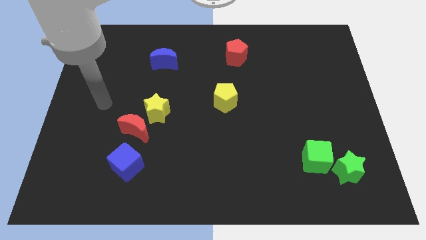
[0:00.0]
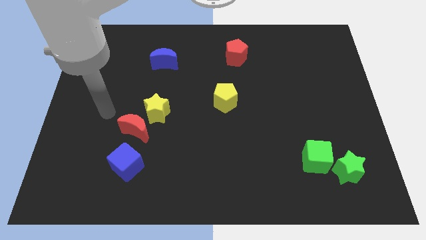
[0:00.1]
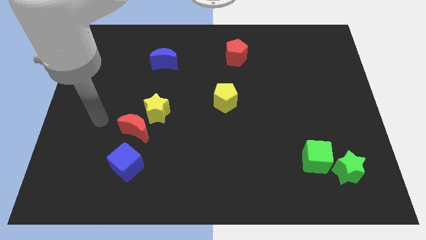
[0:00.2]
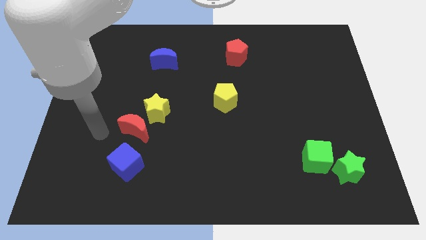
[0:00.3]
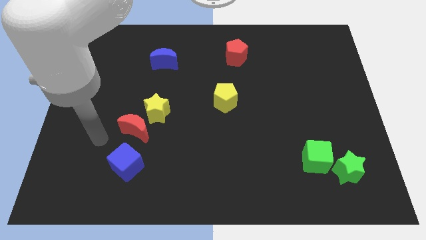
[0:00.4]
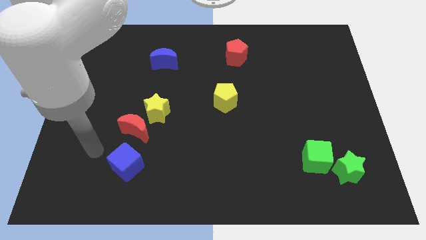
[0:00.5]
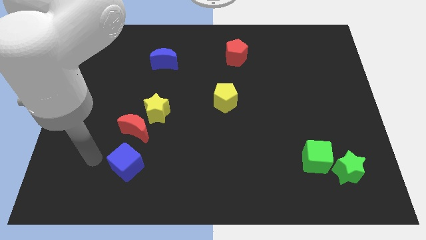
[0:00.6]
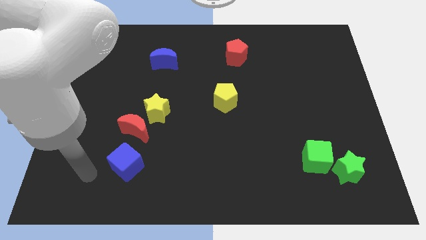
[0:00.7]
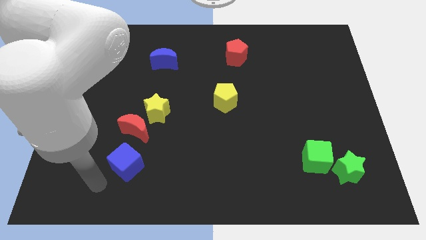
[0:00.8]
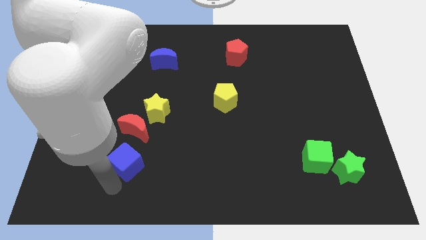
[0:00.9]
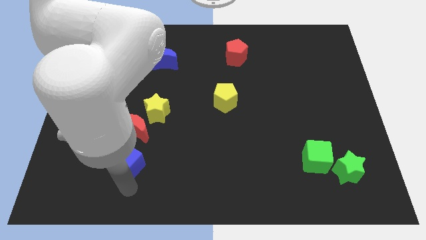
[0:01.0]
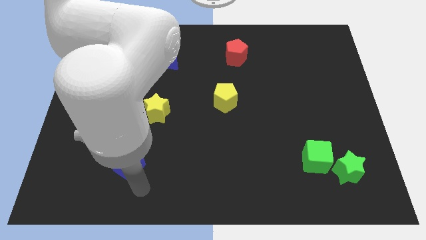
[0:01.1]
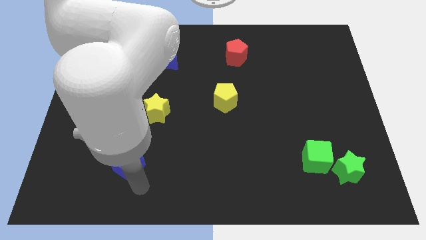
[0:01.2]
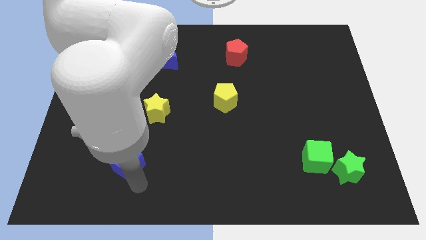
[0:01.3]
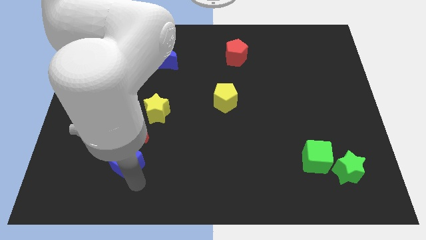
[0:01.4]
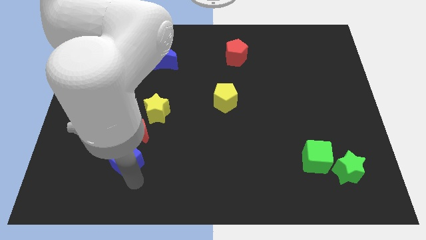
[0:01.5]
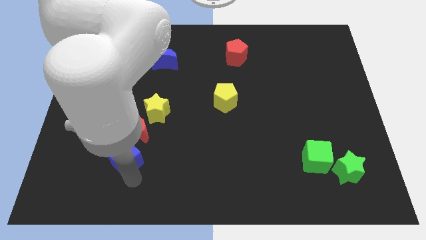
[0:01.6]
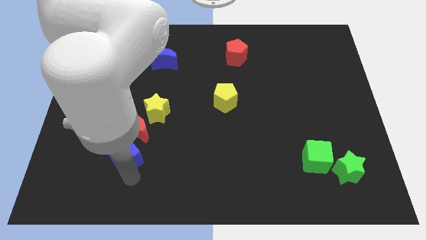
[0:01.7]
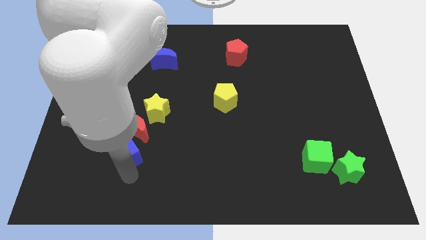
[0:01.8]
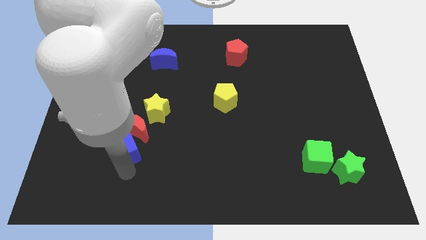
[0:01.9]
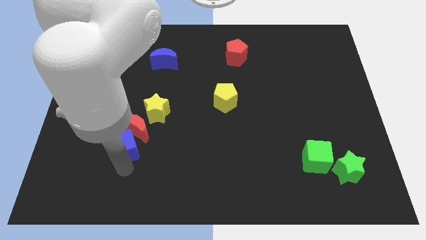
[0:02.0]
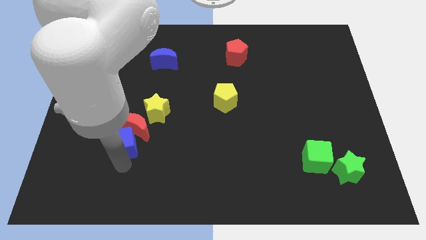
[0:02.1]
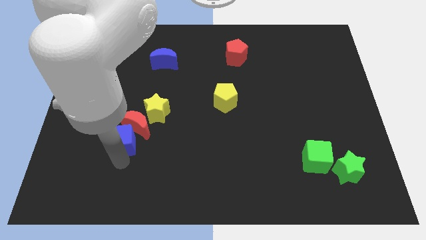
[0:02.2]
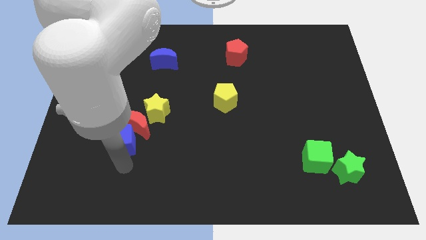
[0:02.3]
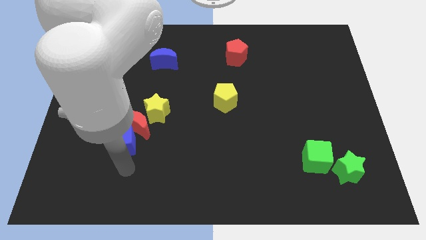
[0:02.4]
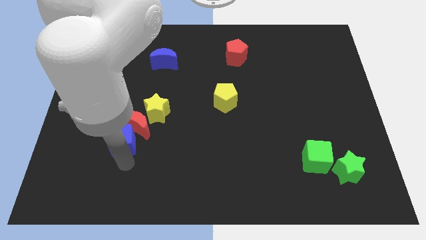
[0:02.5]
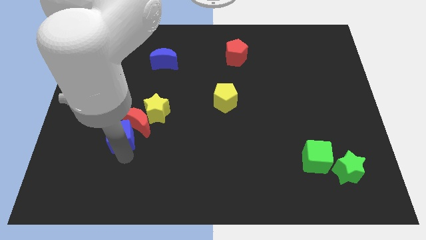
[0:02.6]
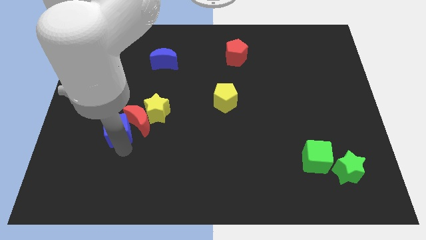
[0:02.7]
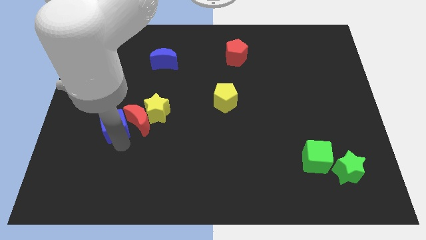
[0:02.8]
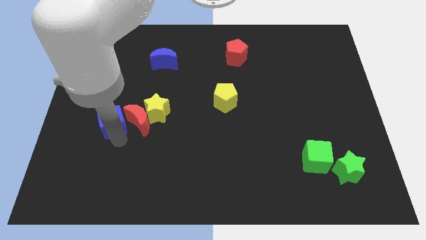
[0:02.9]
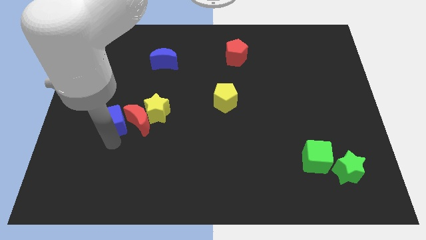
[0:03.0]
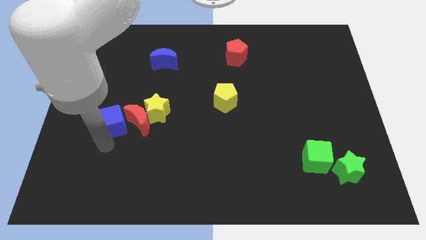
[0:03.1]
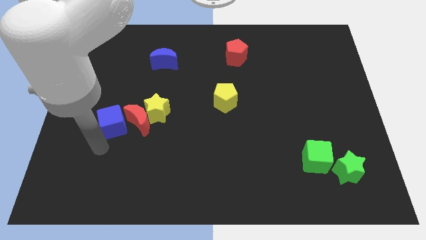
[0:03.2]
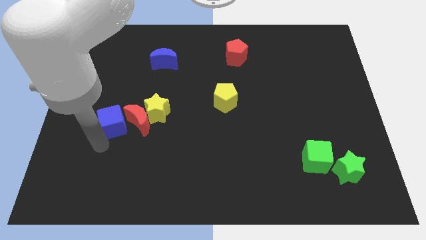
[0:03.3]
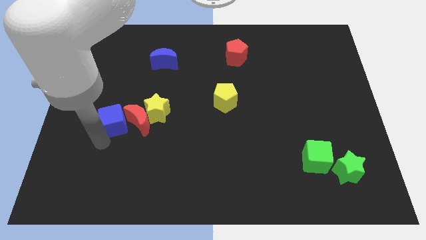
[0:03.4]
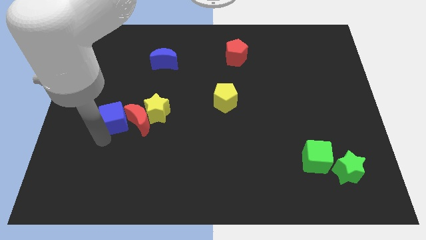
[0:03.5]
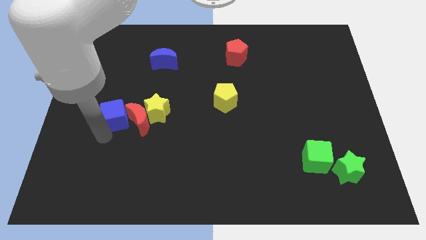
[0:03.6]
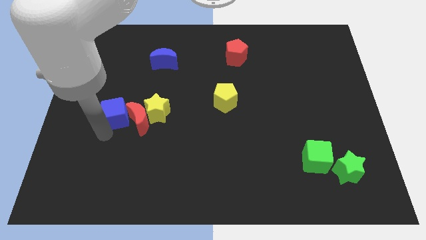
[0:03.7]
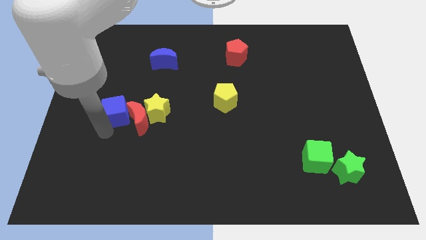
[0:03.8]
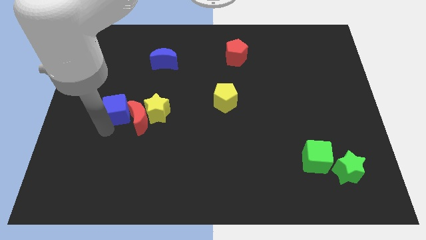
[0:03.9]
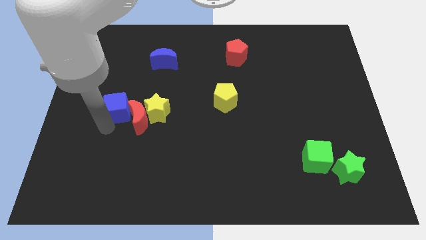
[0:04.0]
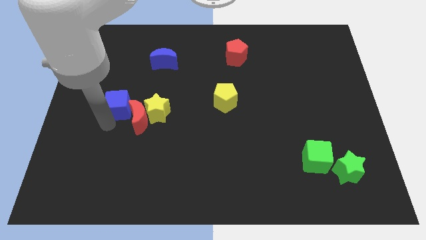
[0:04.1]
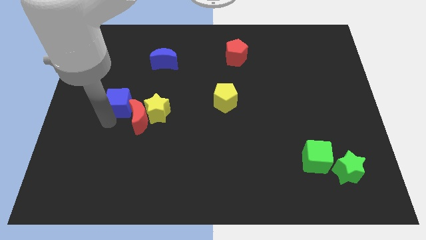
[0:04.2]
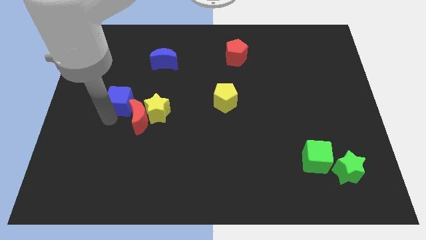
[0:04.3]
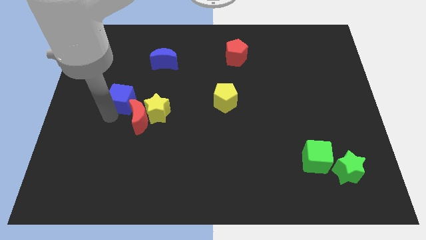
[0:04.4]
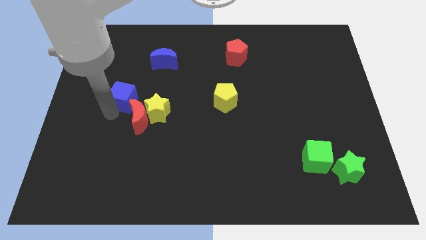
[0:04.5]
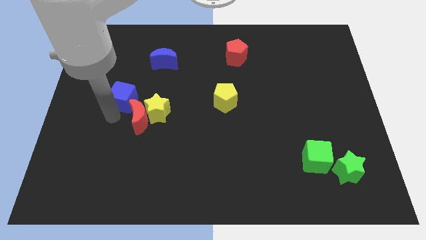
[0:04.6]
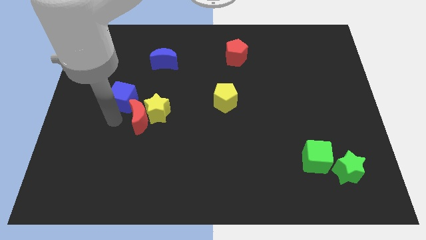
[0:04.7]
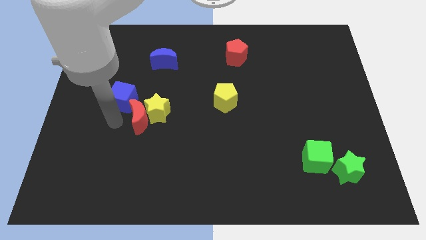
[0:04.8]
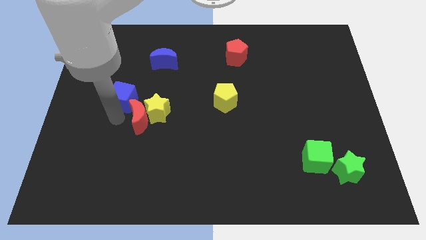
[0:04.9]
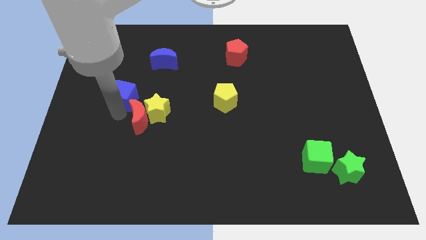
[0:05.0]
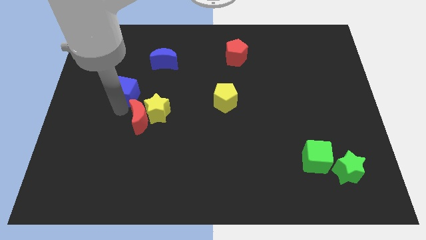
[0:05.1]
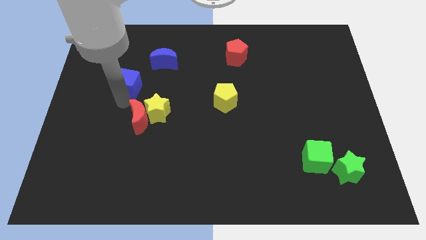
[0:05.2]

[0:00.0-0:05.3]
move the blue cube upwards

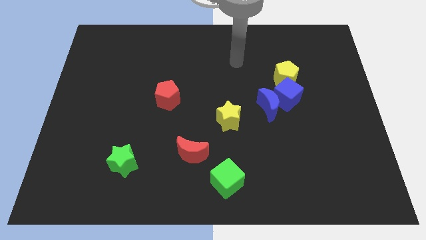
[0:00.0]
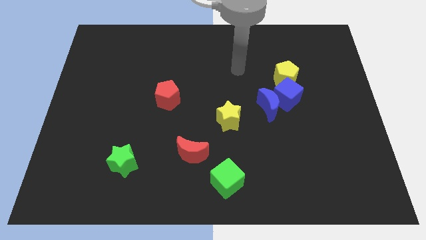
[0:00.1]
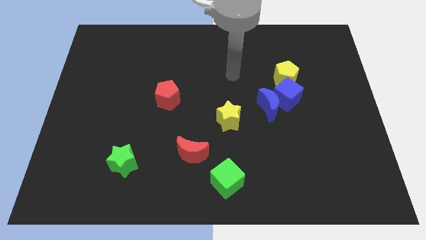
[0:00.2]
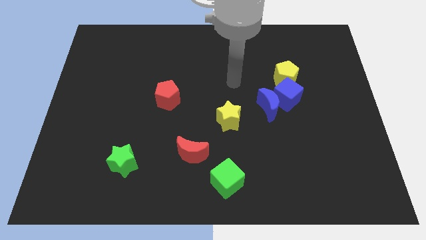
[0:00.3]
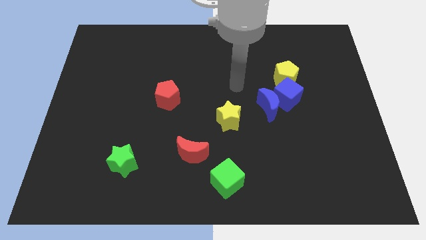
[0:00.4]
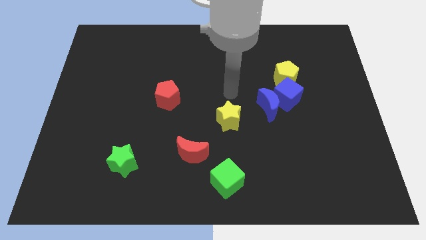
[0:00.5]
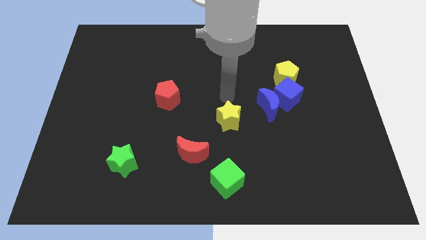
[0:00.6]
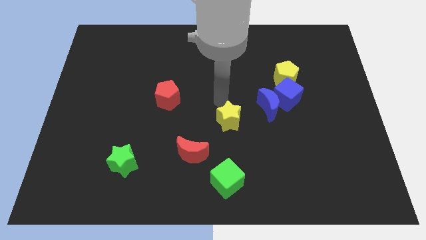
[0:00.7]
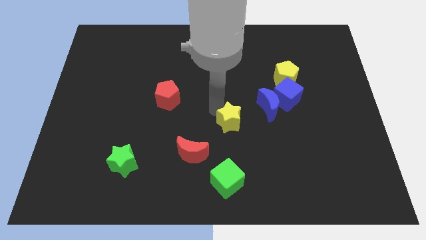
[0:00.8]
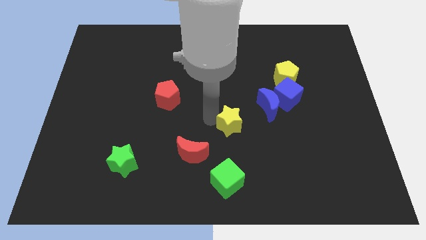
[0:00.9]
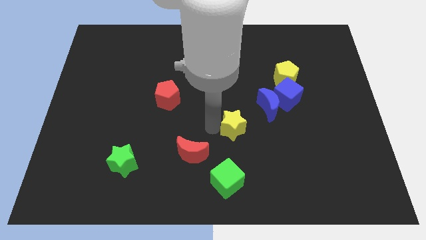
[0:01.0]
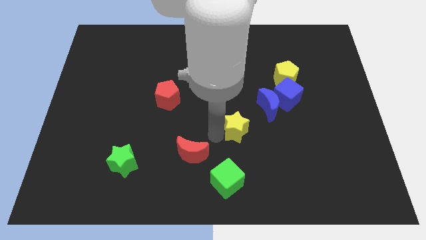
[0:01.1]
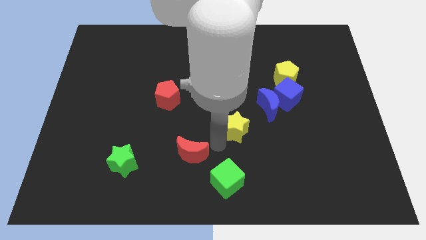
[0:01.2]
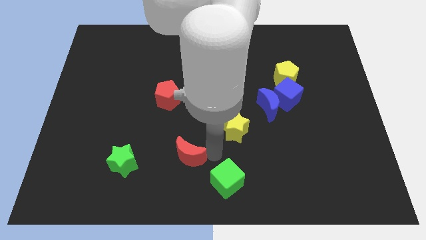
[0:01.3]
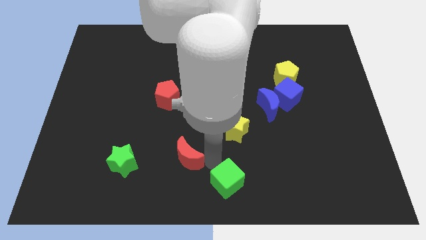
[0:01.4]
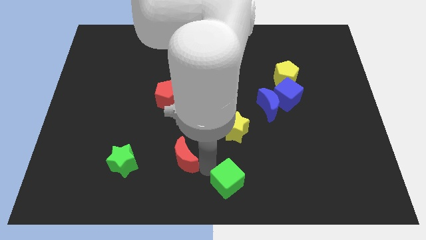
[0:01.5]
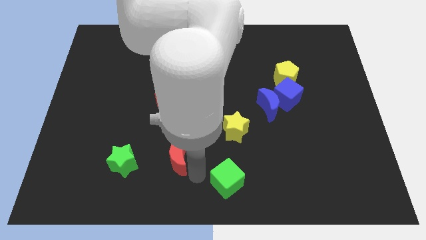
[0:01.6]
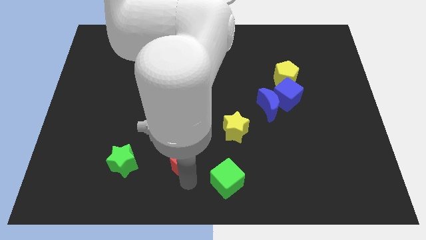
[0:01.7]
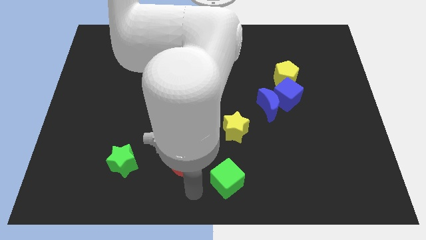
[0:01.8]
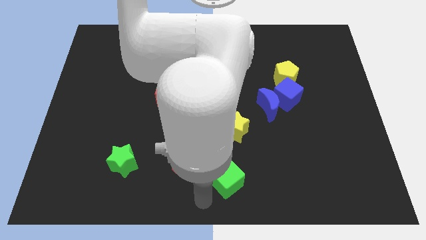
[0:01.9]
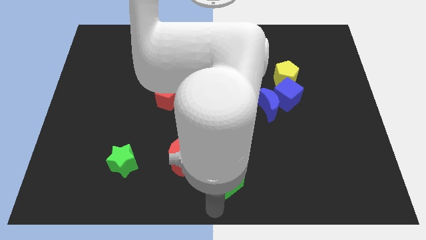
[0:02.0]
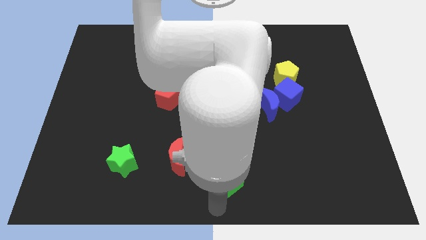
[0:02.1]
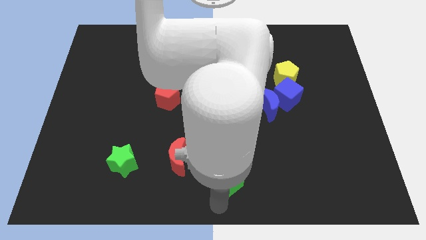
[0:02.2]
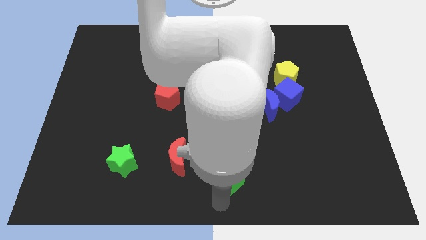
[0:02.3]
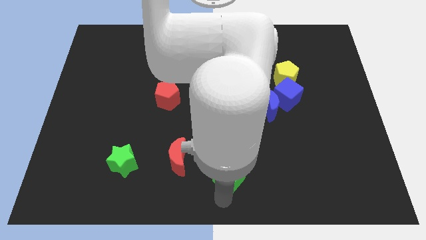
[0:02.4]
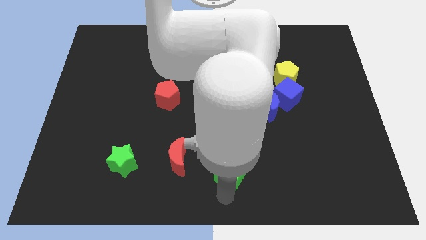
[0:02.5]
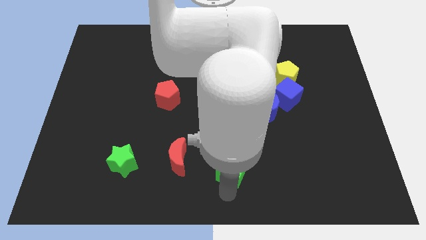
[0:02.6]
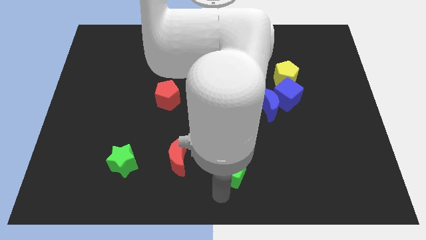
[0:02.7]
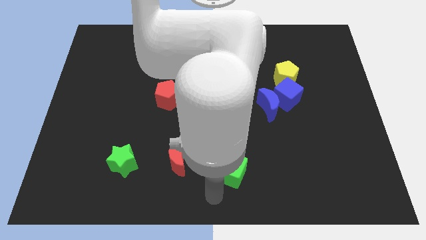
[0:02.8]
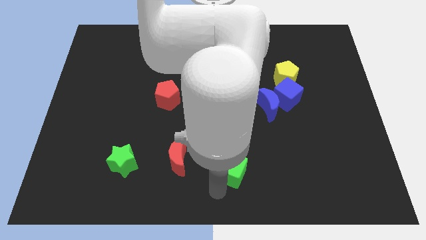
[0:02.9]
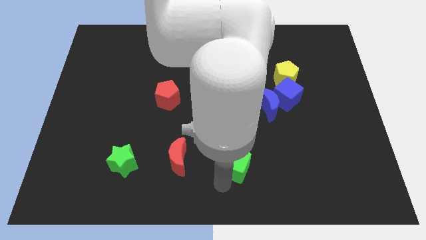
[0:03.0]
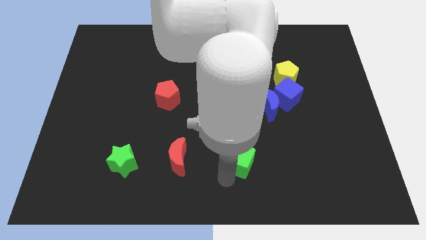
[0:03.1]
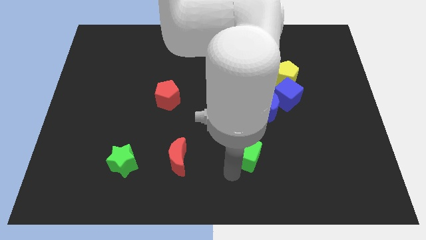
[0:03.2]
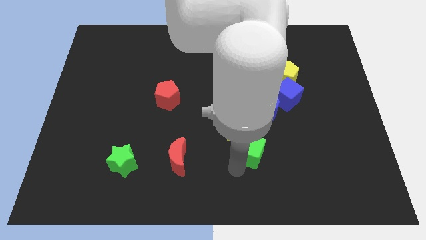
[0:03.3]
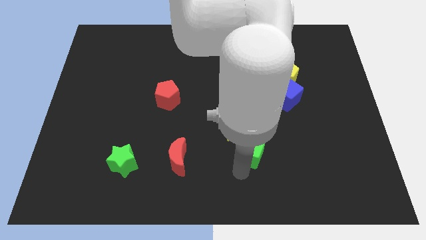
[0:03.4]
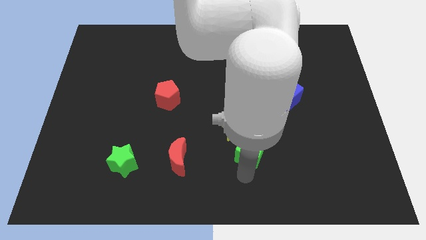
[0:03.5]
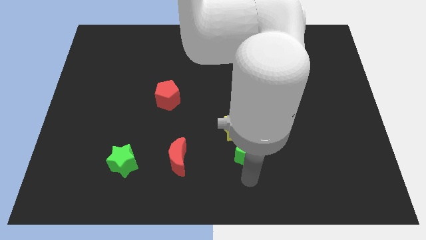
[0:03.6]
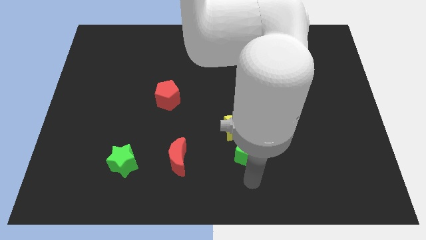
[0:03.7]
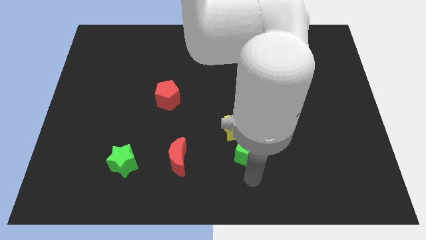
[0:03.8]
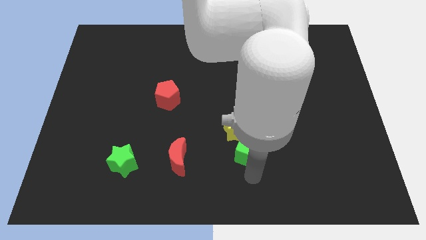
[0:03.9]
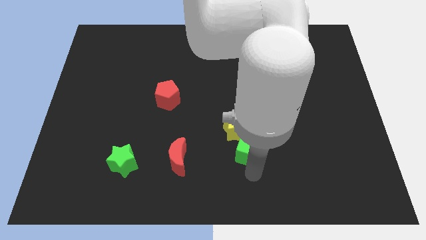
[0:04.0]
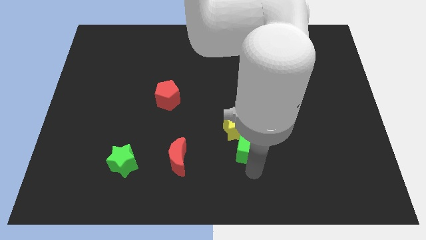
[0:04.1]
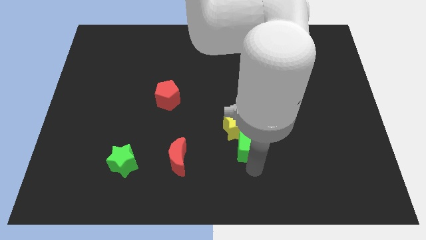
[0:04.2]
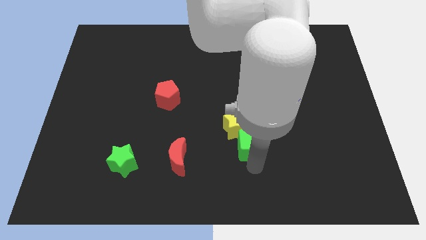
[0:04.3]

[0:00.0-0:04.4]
push the green cube upwards slightly
